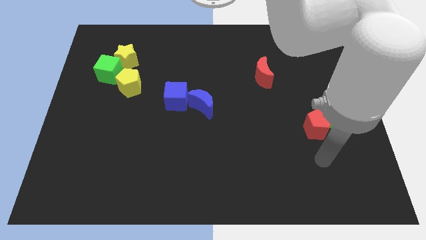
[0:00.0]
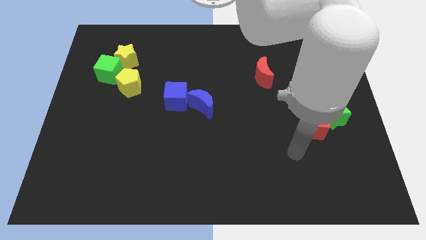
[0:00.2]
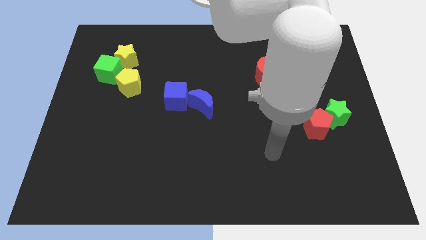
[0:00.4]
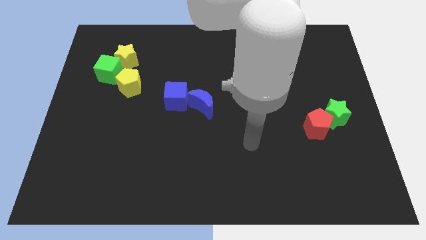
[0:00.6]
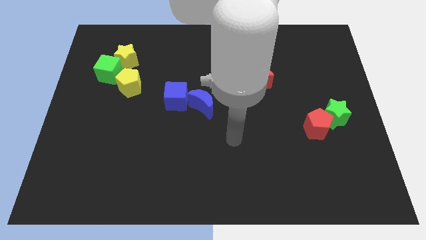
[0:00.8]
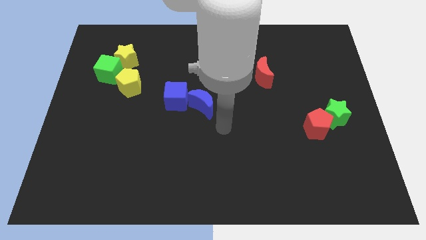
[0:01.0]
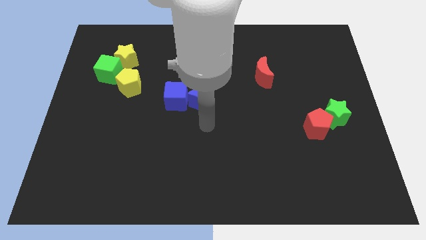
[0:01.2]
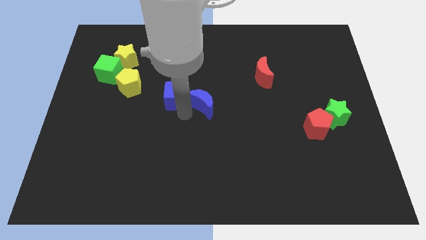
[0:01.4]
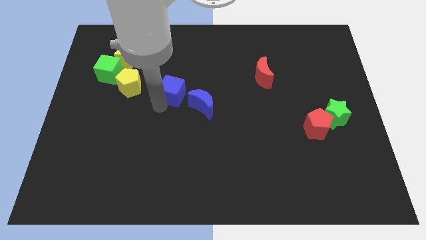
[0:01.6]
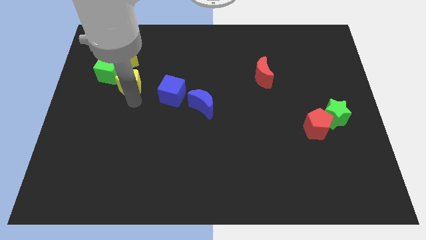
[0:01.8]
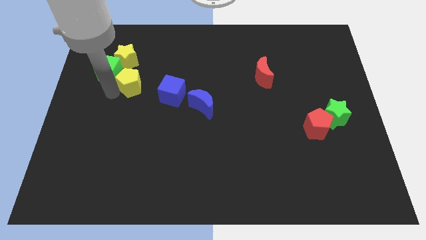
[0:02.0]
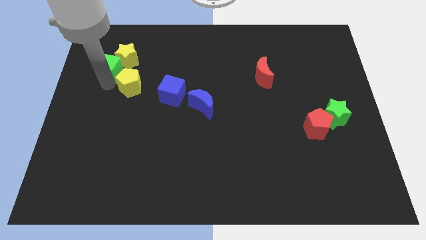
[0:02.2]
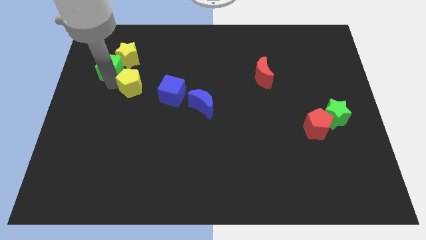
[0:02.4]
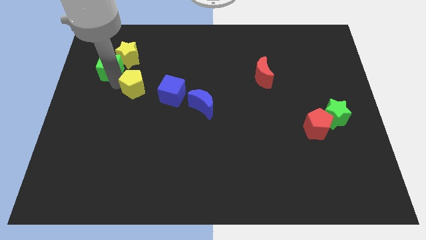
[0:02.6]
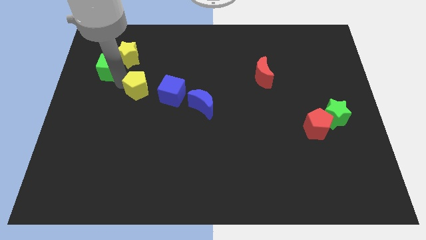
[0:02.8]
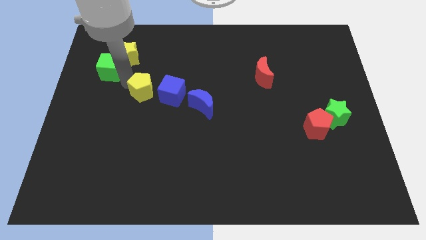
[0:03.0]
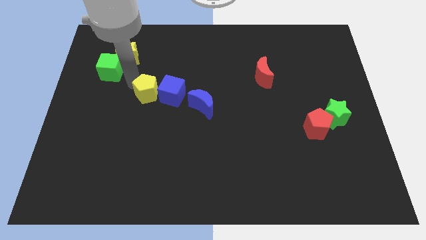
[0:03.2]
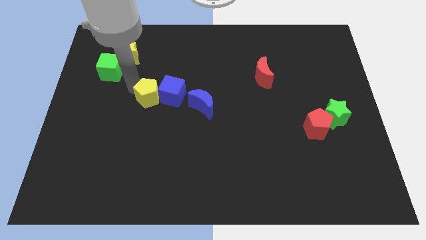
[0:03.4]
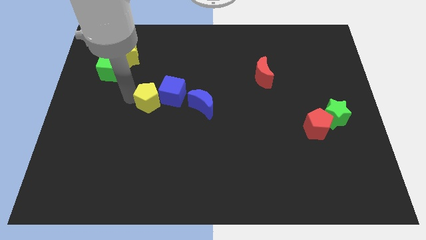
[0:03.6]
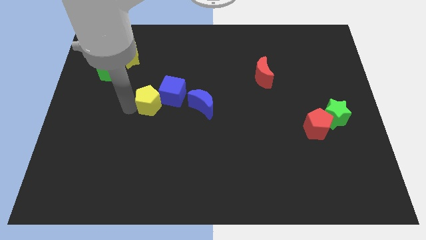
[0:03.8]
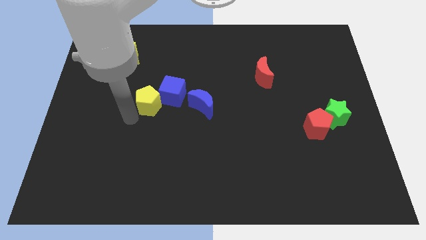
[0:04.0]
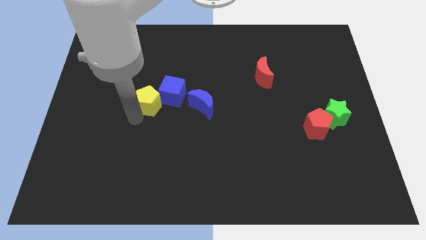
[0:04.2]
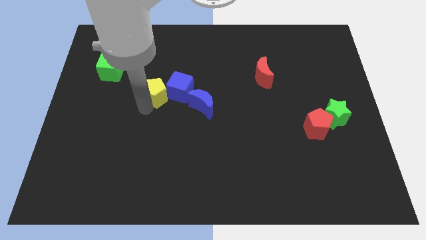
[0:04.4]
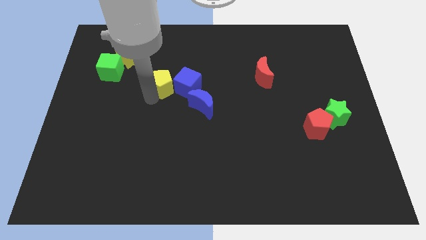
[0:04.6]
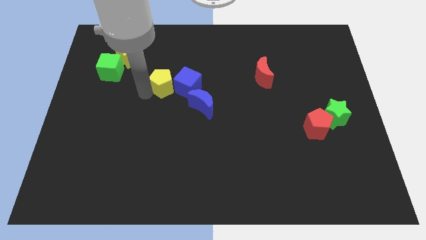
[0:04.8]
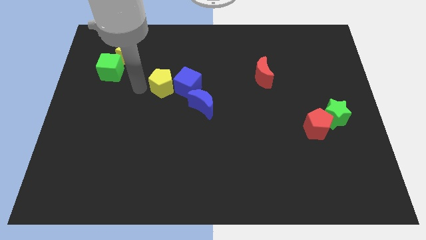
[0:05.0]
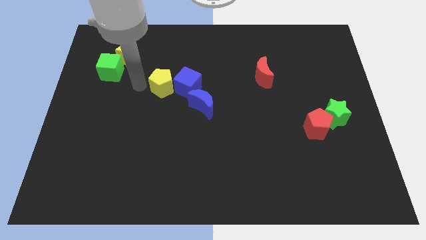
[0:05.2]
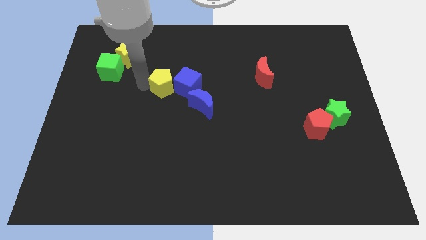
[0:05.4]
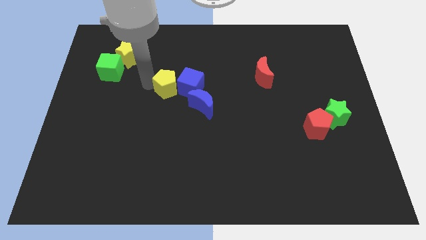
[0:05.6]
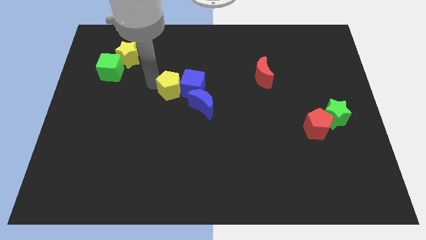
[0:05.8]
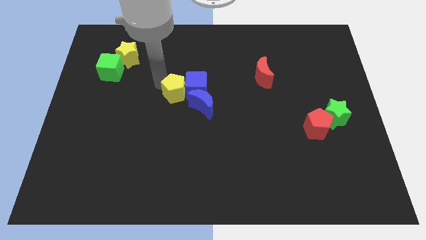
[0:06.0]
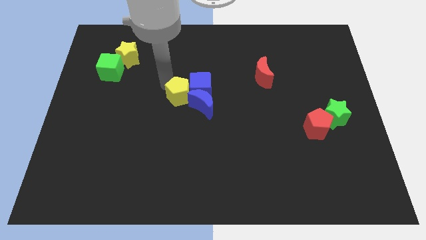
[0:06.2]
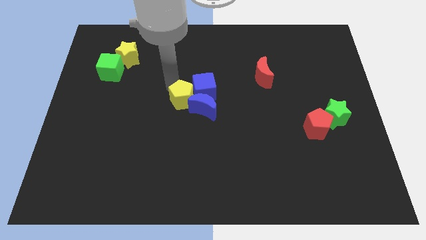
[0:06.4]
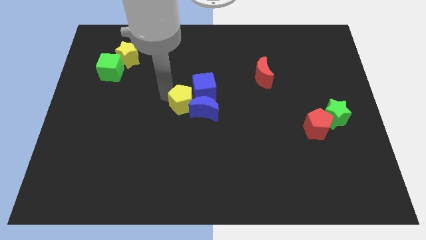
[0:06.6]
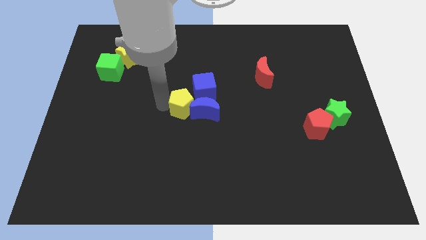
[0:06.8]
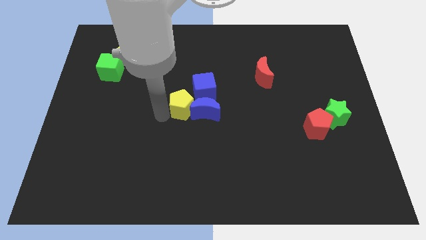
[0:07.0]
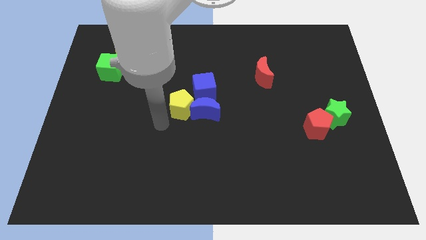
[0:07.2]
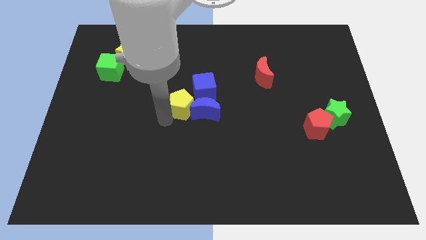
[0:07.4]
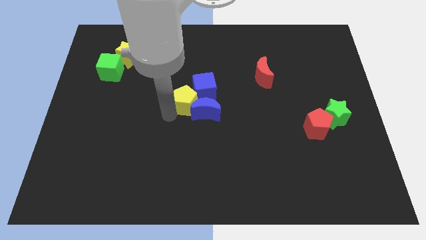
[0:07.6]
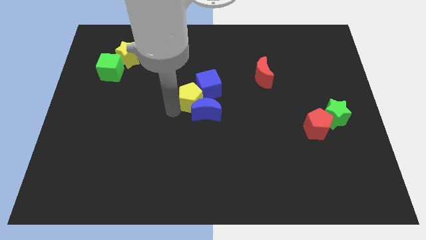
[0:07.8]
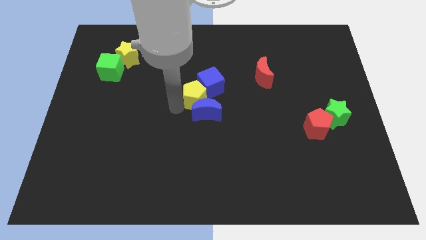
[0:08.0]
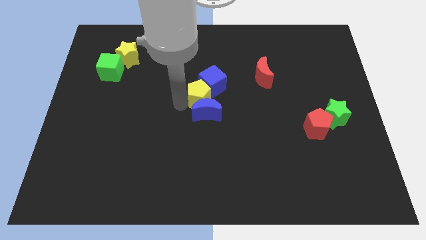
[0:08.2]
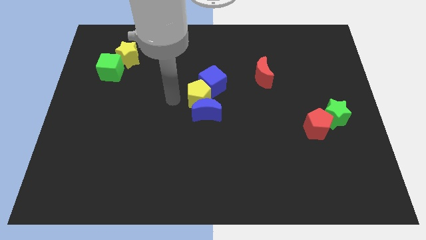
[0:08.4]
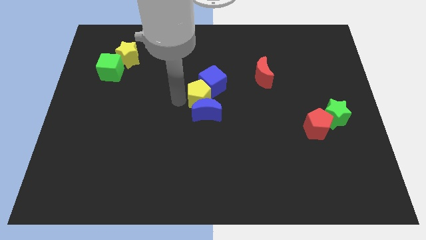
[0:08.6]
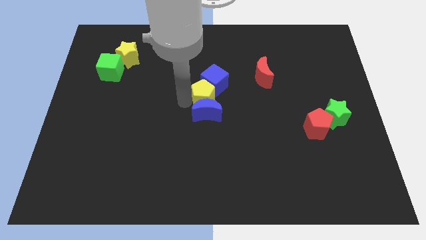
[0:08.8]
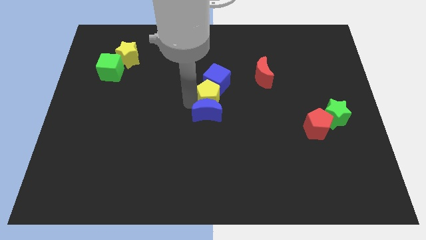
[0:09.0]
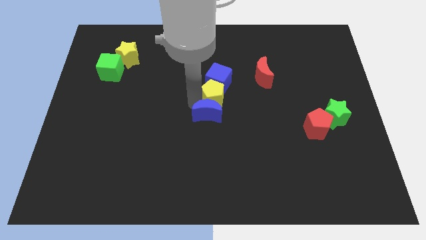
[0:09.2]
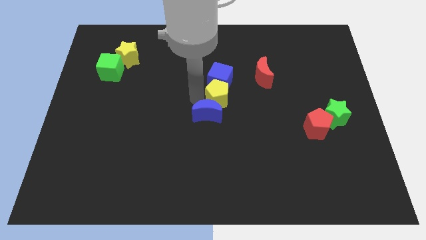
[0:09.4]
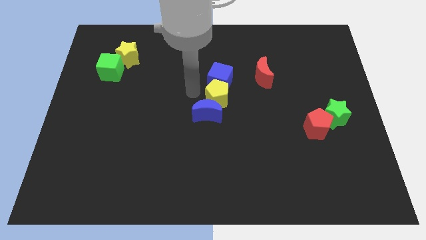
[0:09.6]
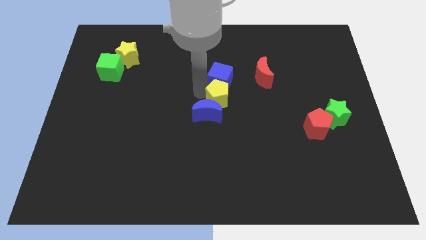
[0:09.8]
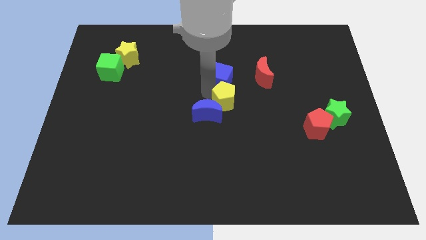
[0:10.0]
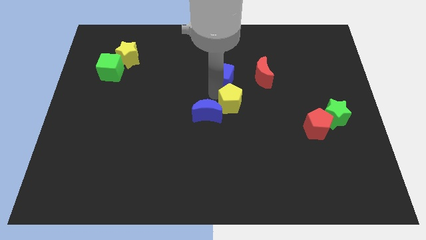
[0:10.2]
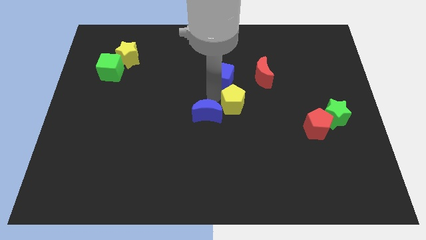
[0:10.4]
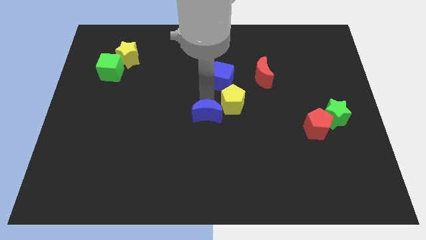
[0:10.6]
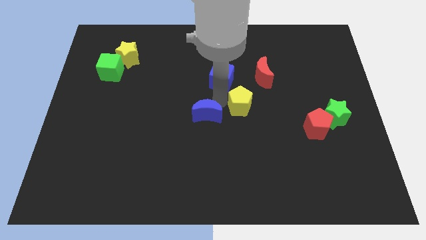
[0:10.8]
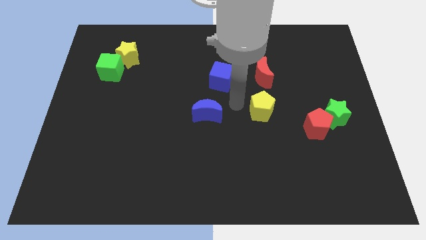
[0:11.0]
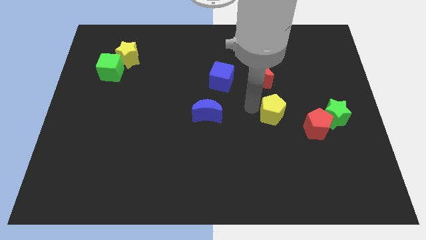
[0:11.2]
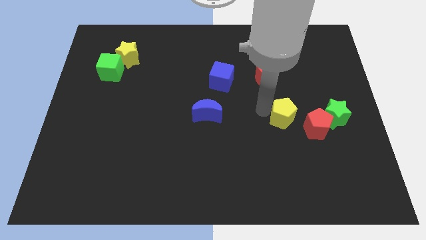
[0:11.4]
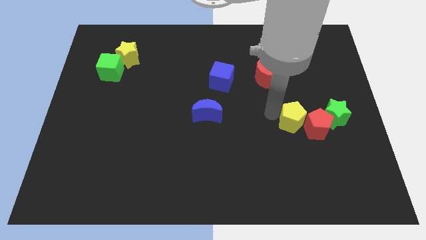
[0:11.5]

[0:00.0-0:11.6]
push the yellow pentagon close to the red pentagon

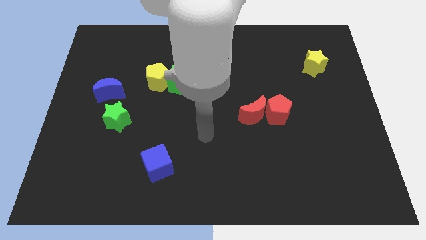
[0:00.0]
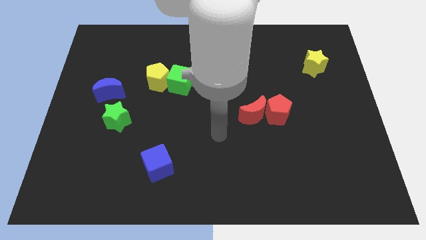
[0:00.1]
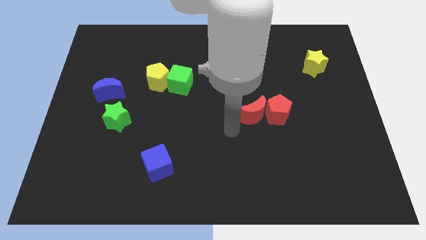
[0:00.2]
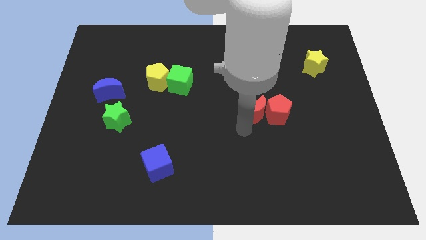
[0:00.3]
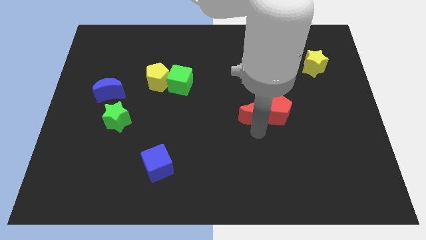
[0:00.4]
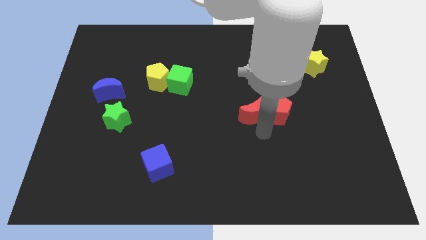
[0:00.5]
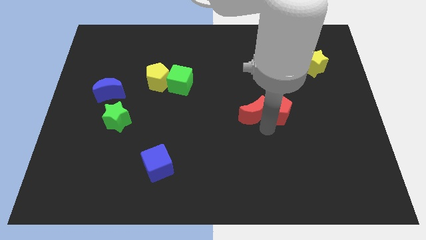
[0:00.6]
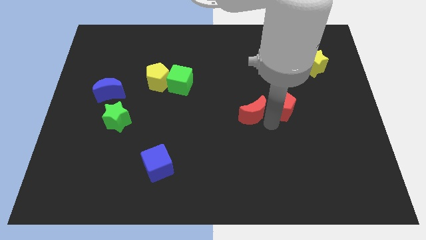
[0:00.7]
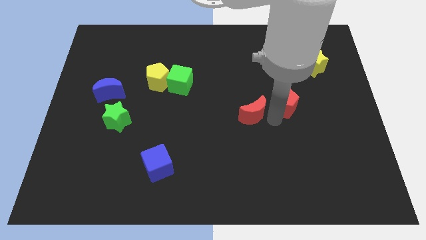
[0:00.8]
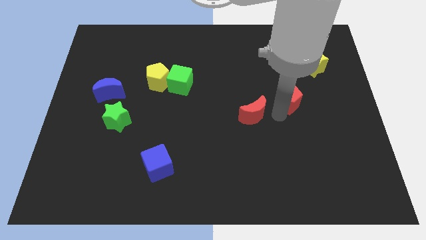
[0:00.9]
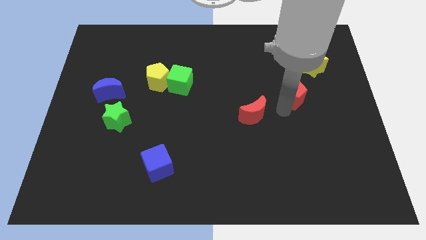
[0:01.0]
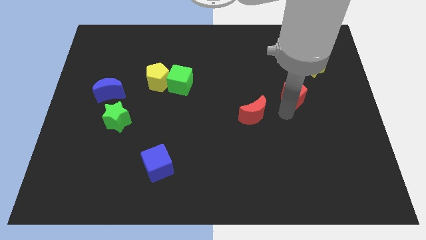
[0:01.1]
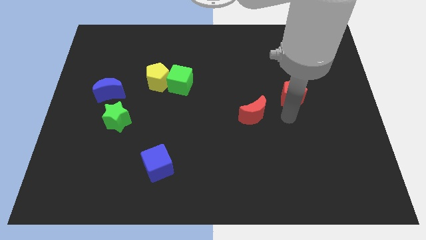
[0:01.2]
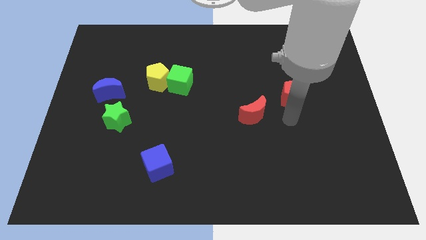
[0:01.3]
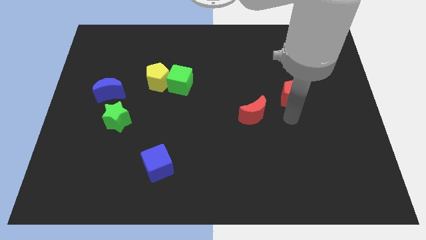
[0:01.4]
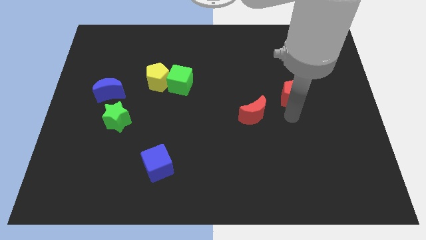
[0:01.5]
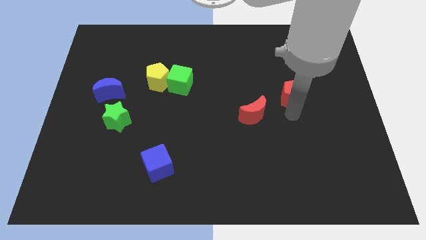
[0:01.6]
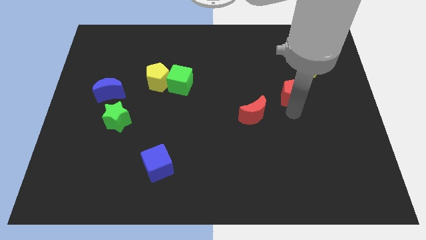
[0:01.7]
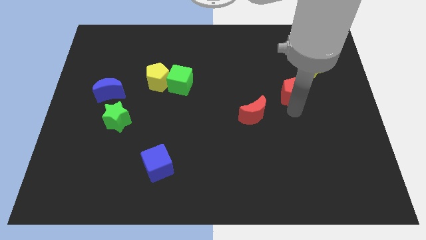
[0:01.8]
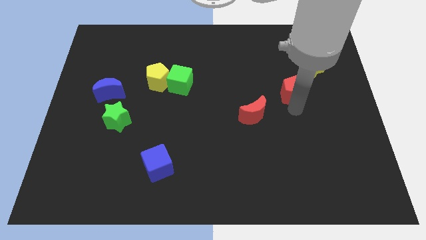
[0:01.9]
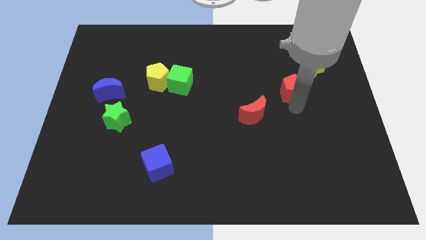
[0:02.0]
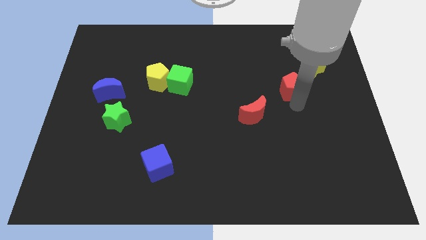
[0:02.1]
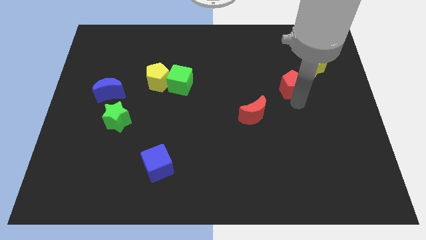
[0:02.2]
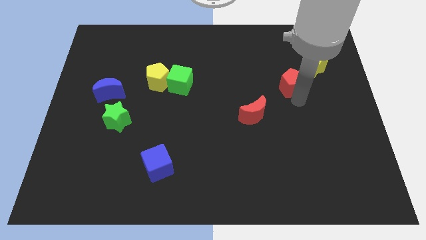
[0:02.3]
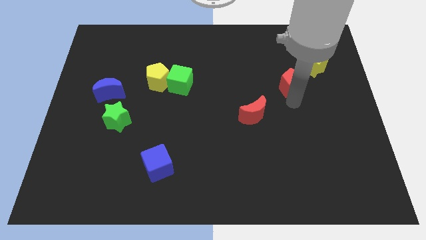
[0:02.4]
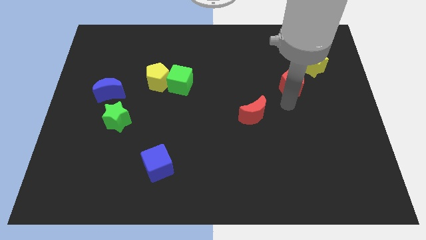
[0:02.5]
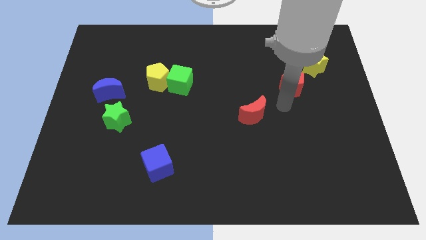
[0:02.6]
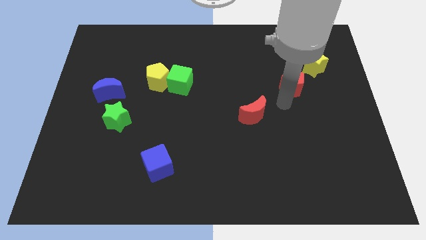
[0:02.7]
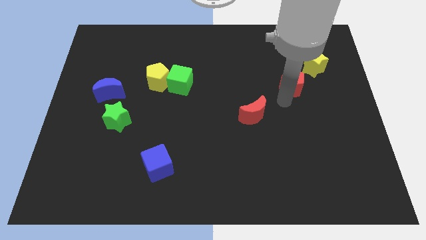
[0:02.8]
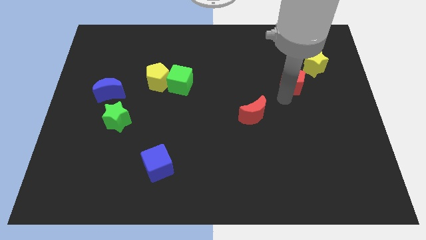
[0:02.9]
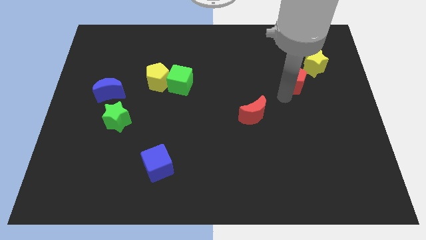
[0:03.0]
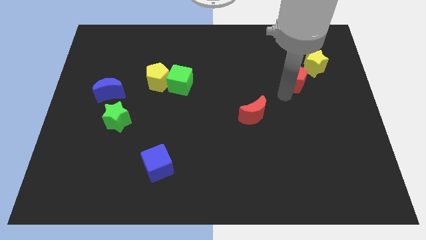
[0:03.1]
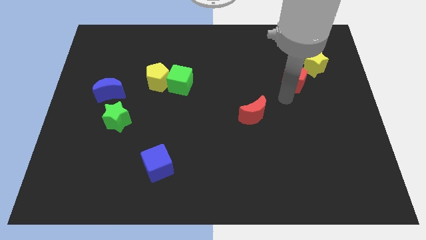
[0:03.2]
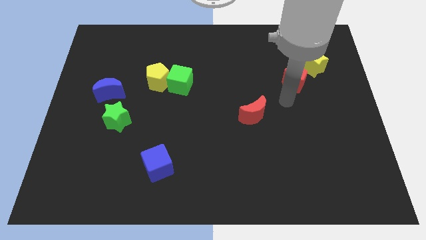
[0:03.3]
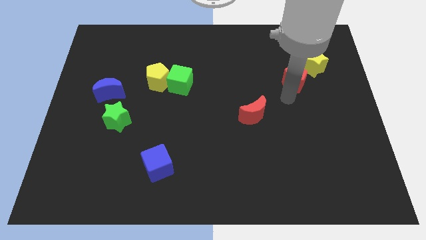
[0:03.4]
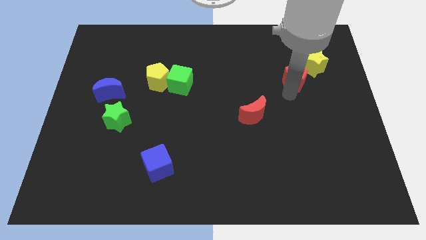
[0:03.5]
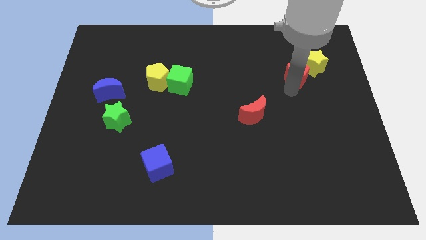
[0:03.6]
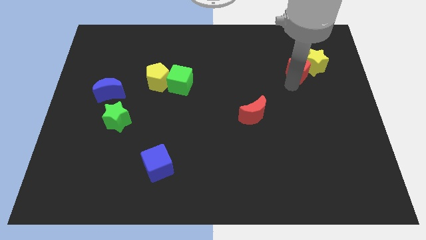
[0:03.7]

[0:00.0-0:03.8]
slide the red pentagon close to the yellow star
